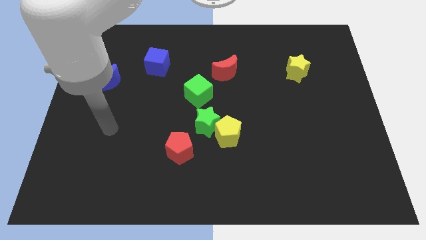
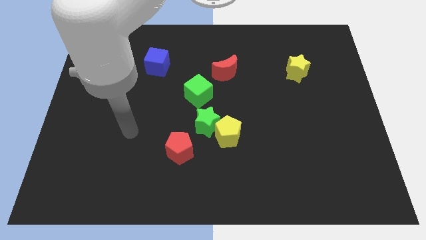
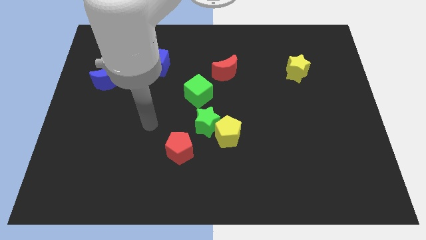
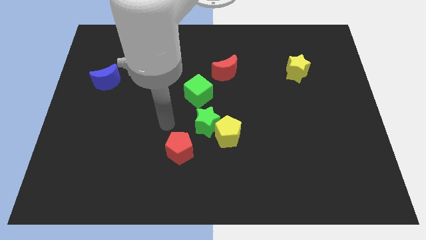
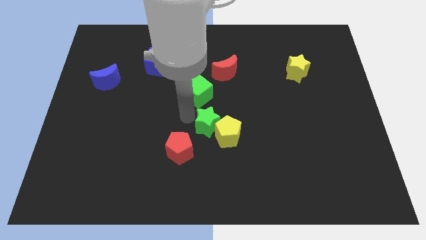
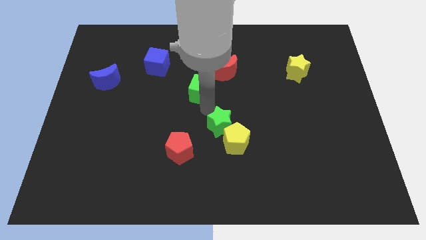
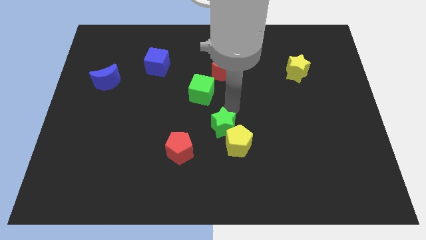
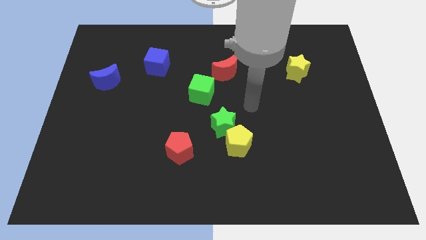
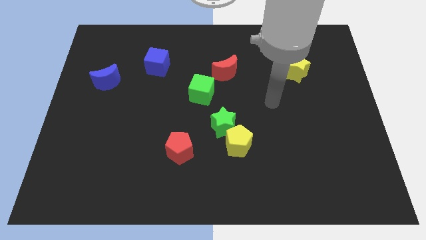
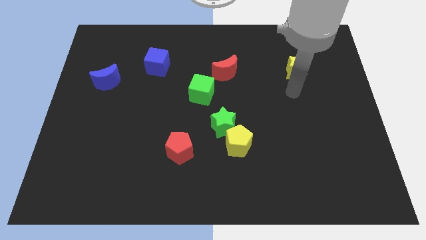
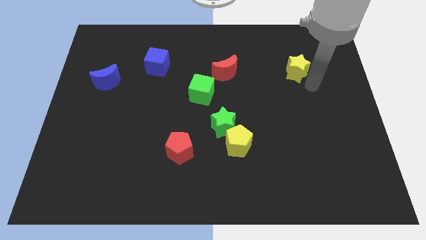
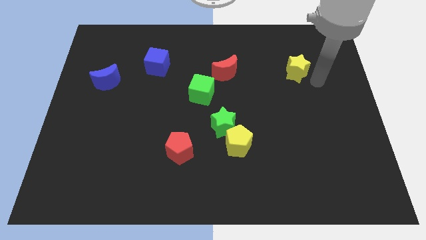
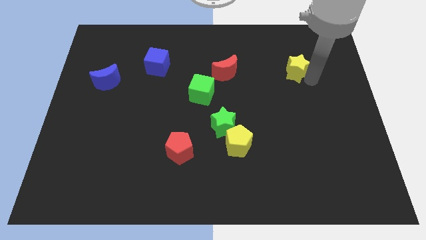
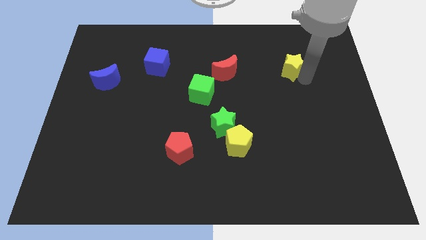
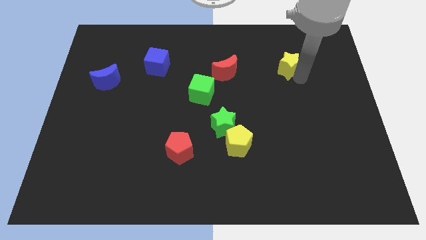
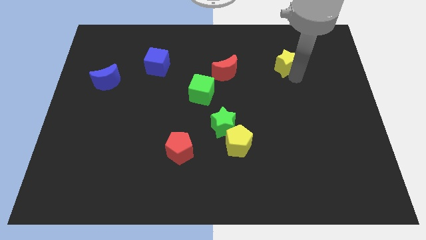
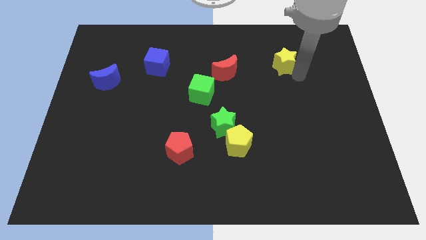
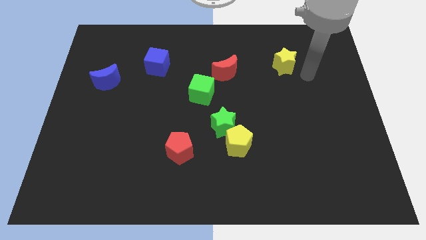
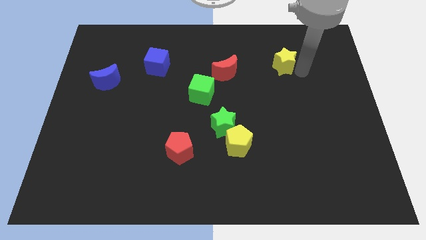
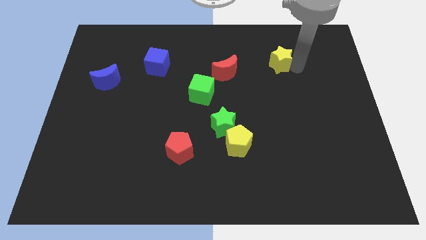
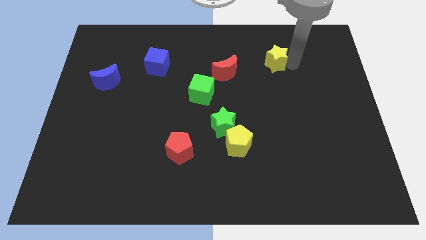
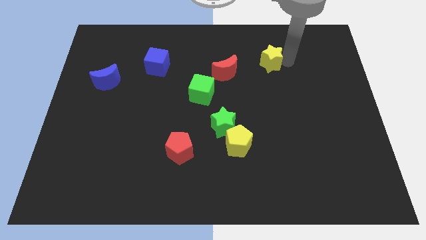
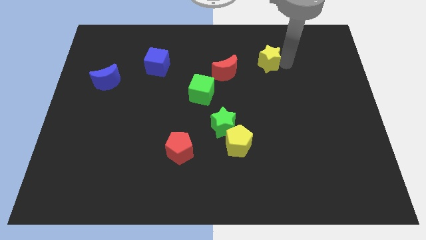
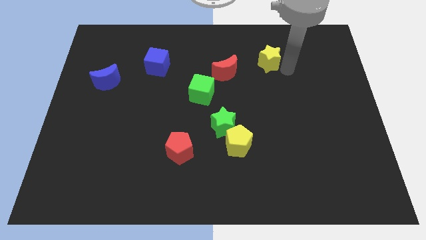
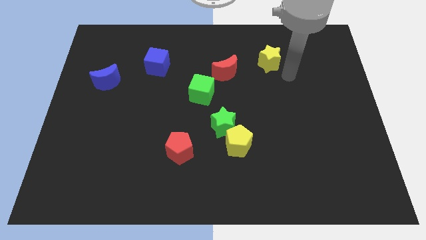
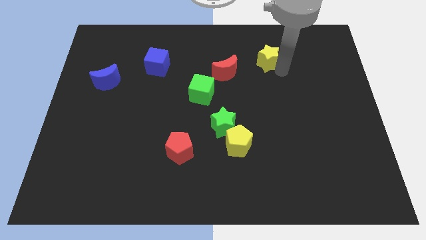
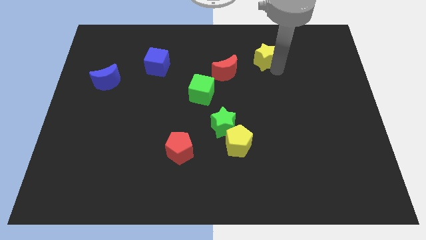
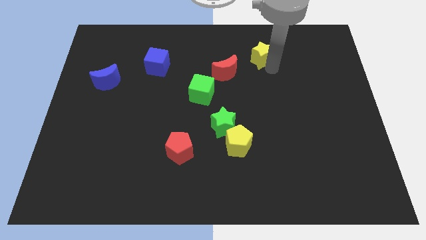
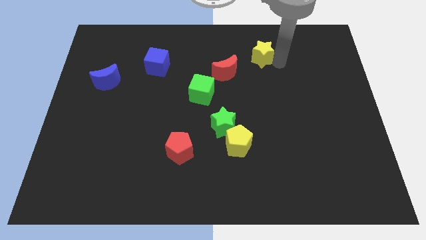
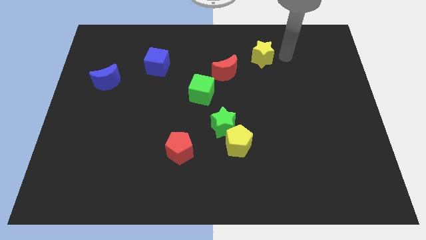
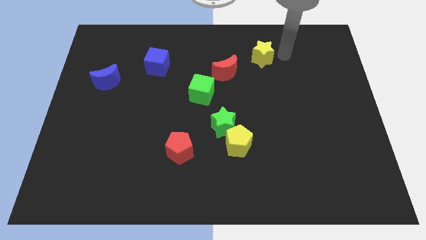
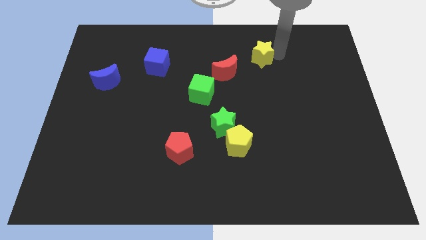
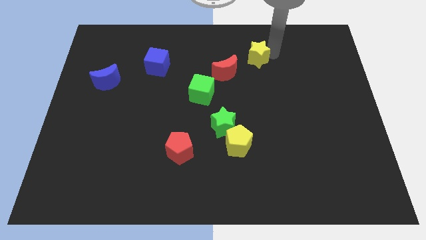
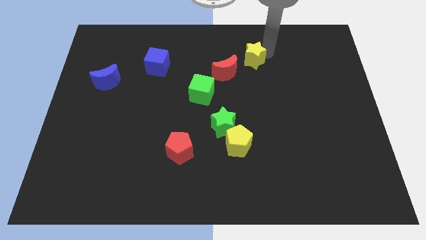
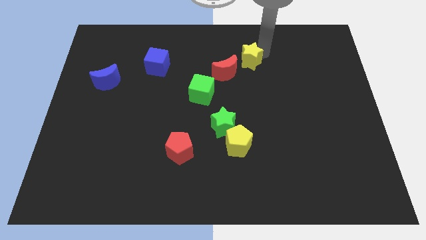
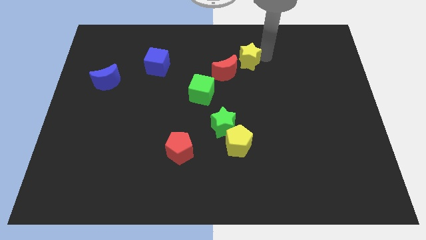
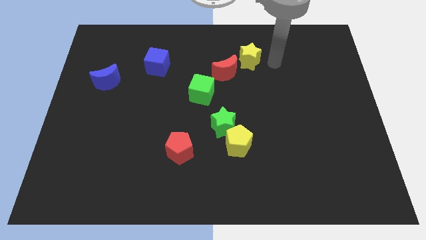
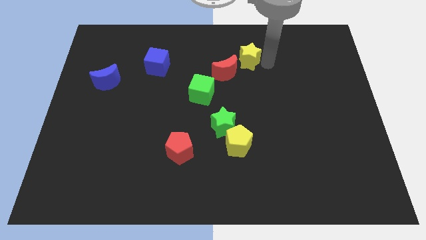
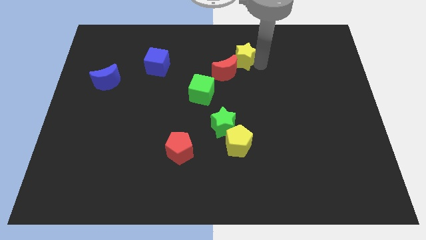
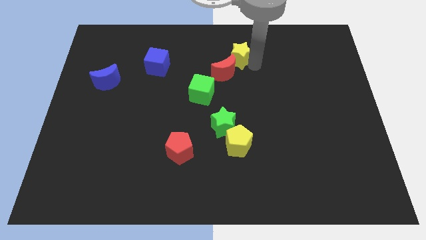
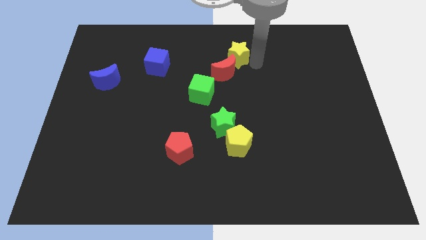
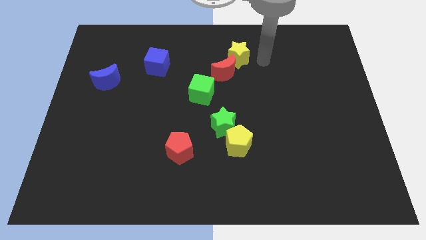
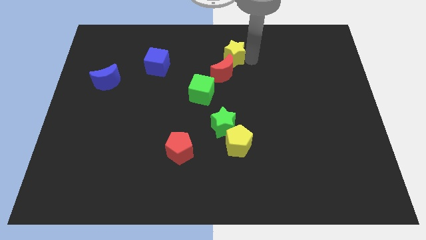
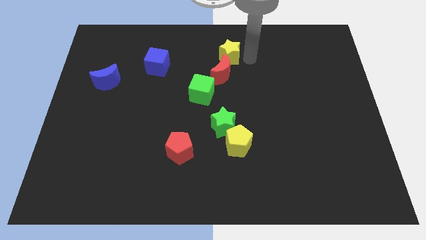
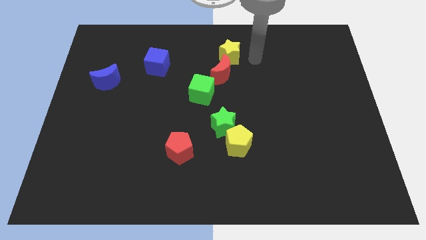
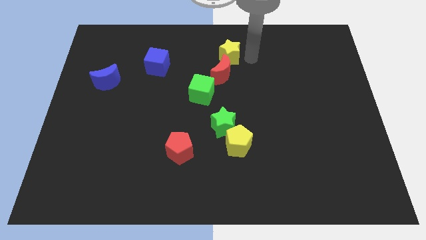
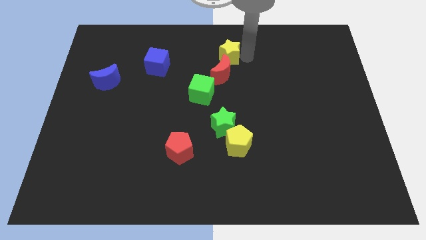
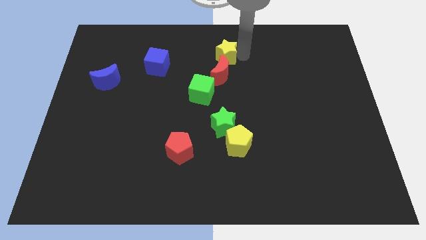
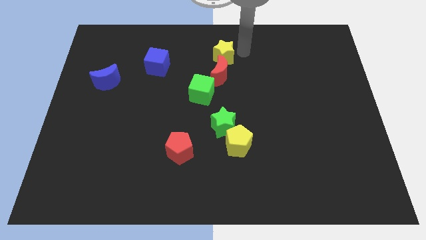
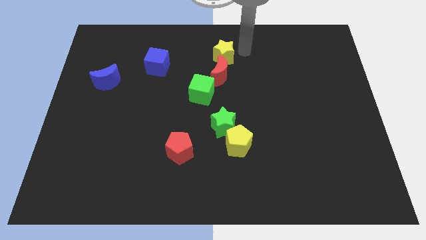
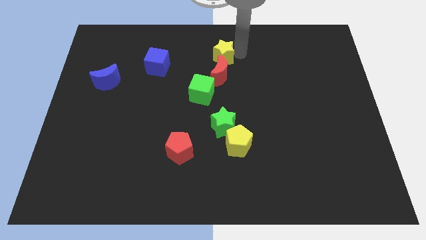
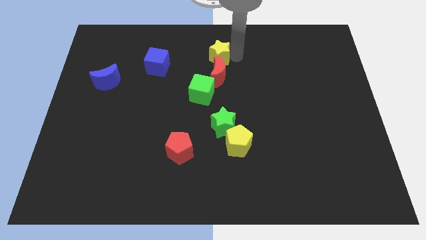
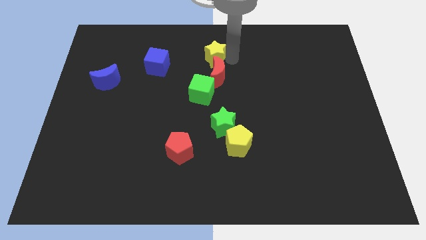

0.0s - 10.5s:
slide the yellow star right of the blue cube

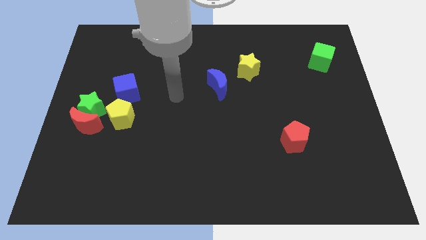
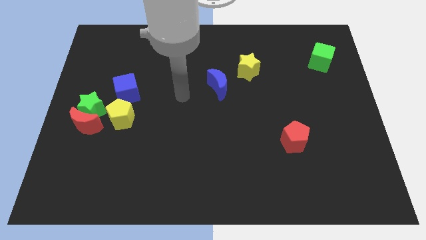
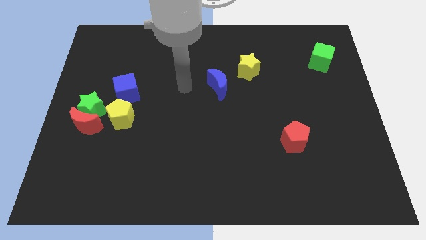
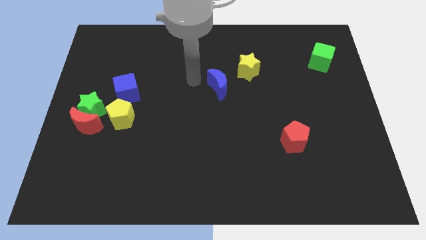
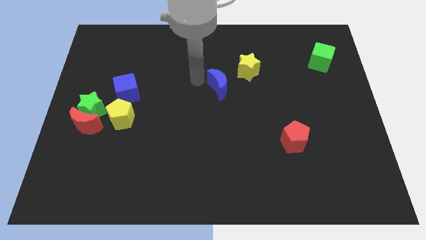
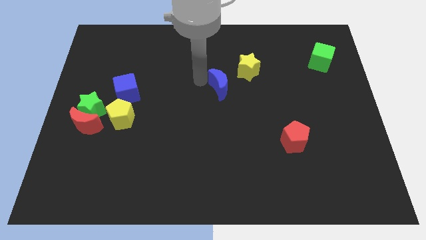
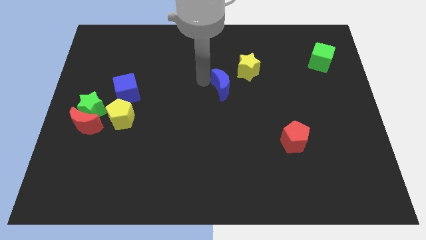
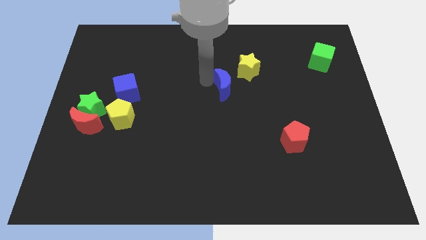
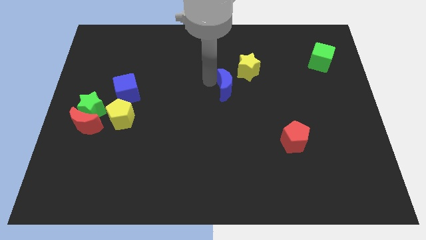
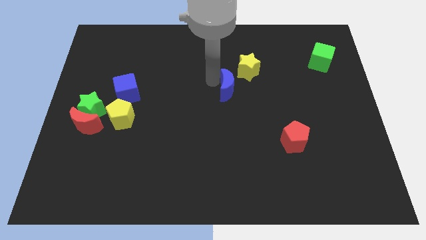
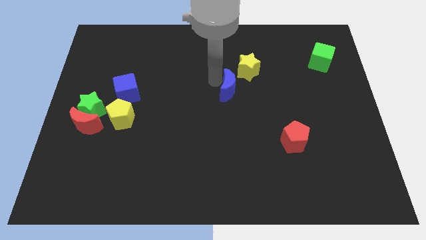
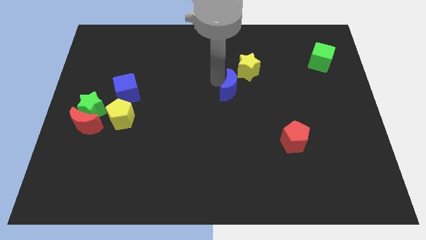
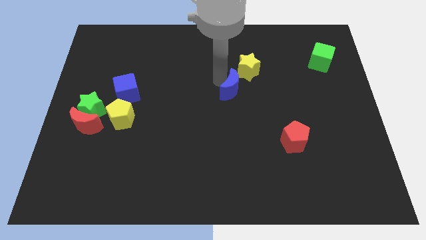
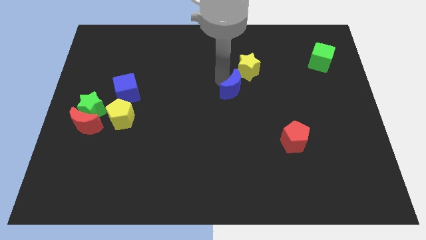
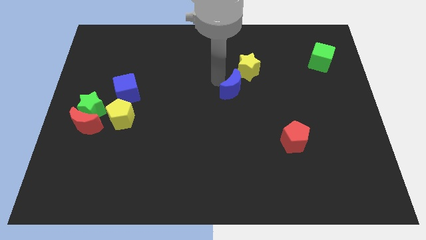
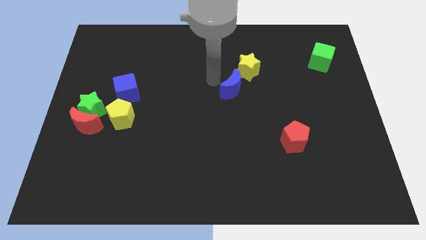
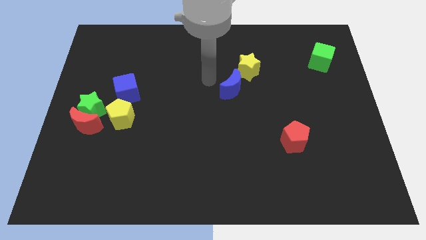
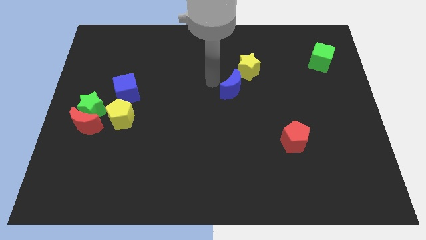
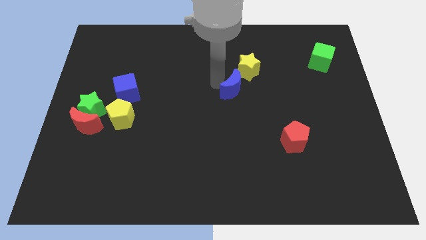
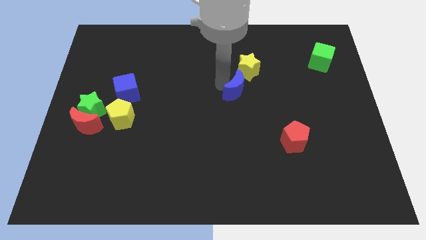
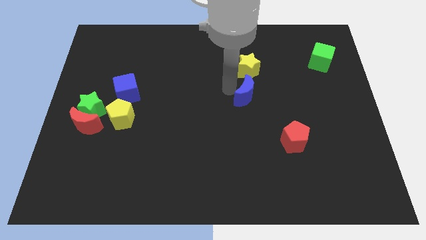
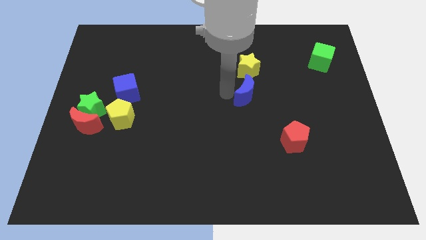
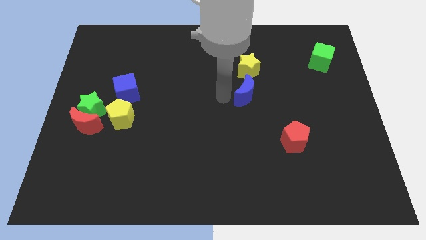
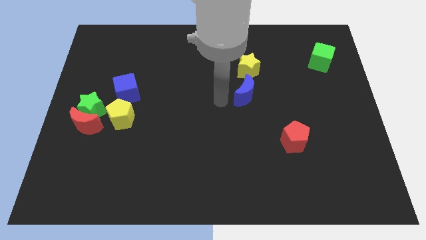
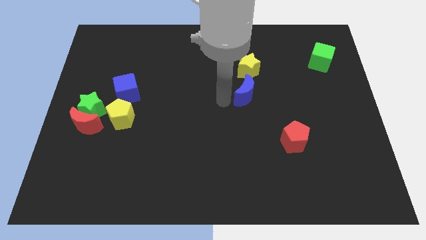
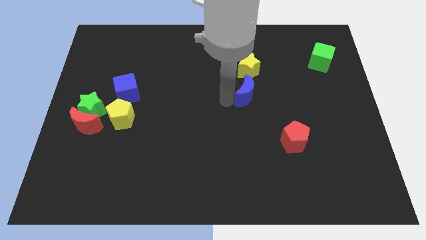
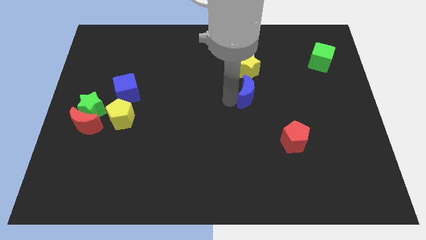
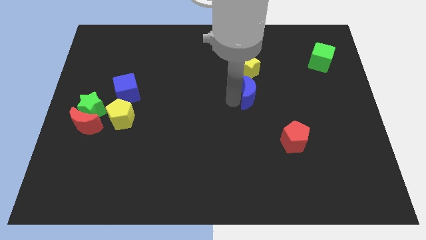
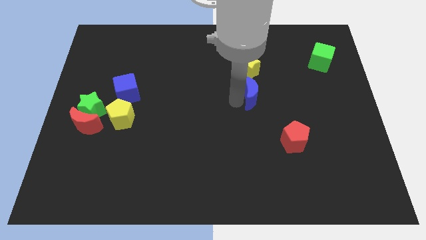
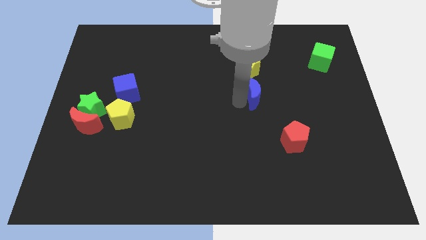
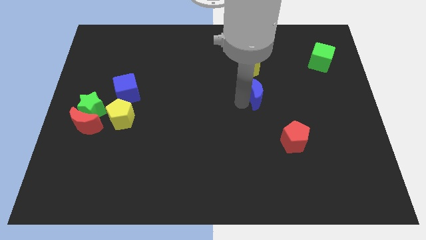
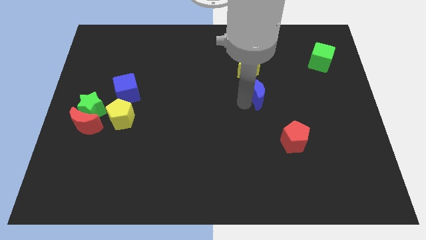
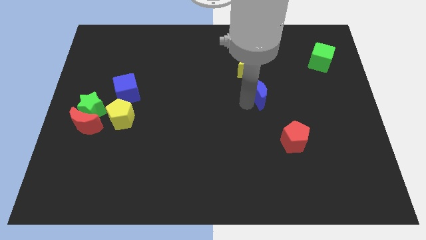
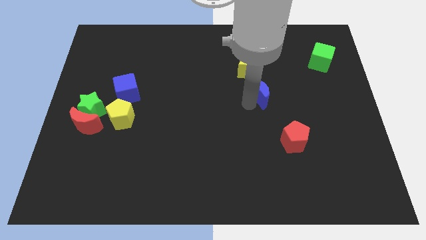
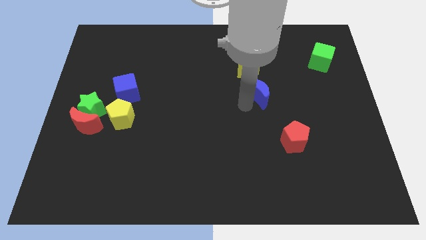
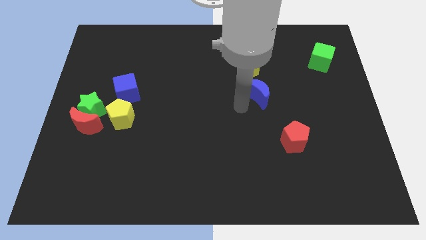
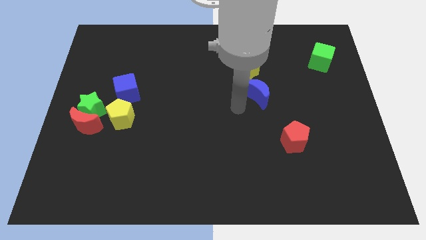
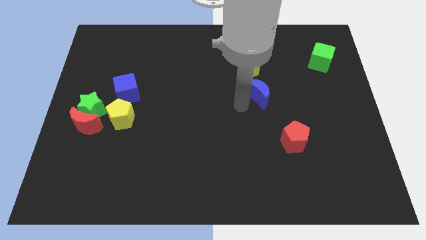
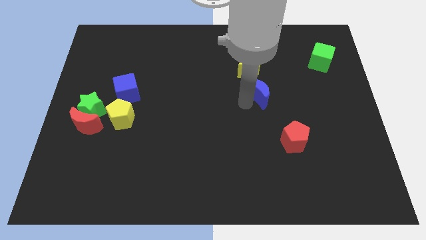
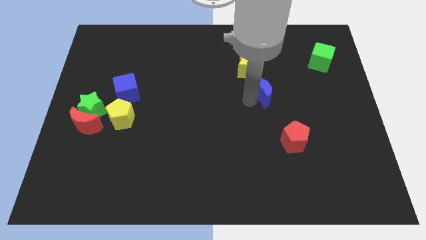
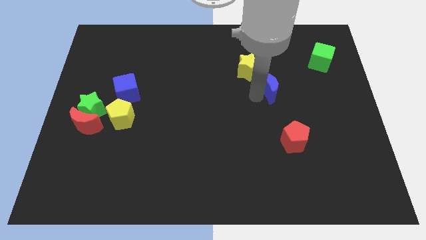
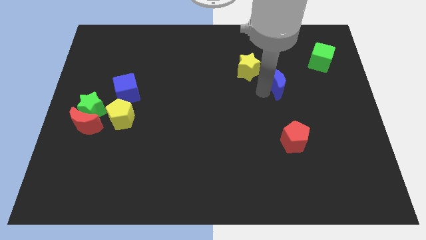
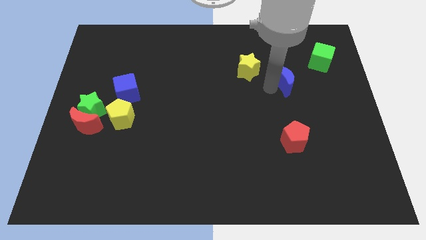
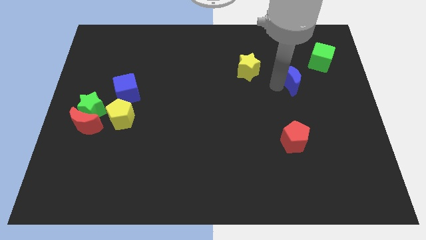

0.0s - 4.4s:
slide the blue moon diagonally down and to the left of the green cube
